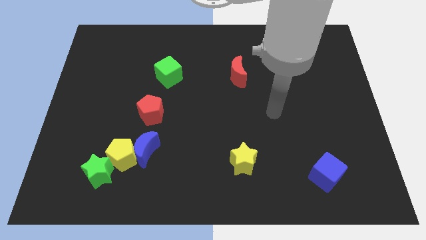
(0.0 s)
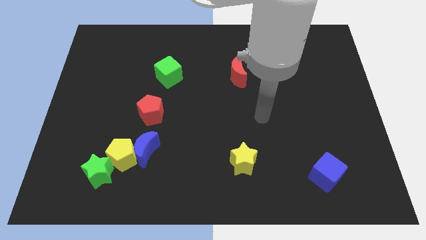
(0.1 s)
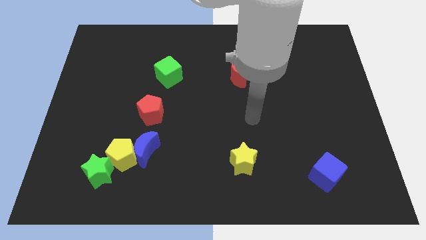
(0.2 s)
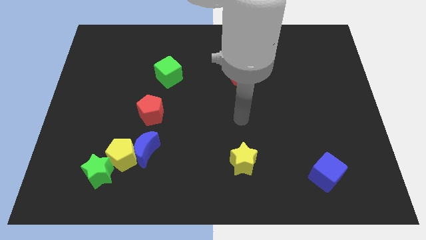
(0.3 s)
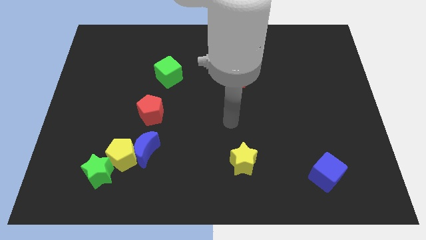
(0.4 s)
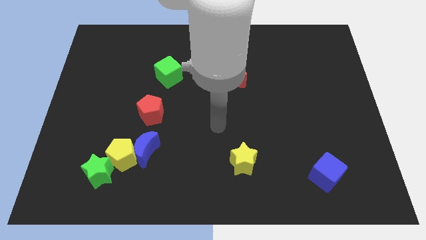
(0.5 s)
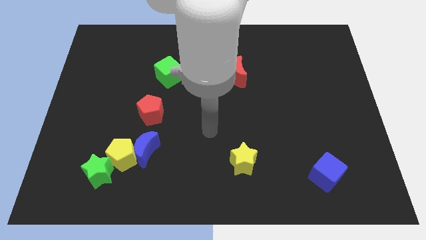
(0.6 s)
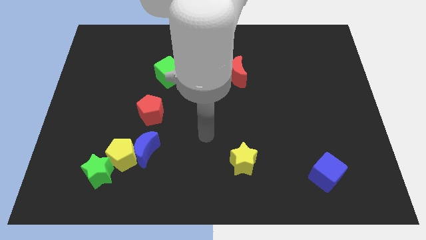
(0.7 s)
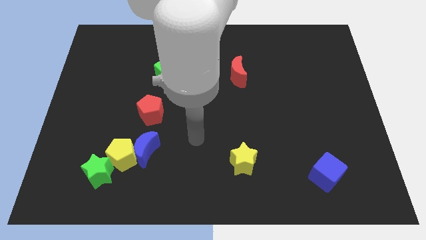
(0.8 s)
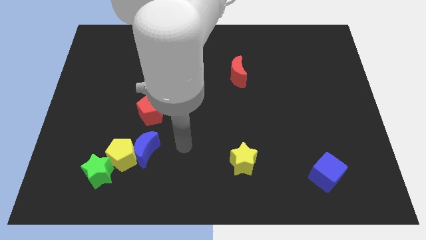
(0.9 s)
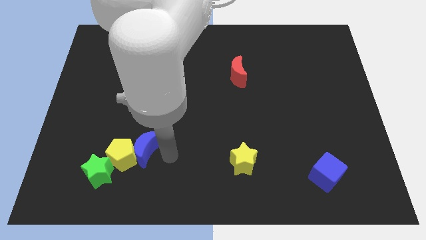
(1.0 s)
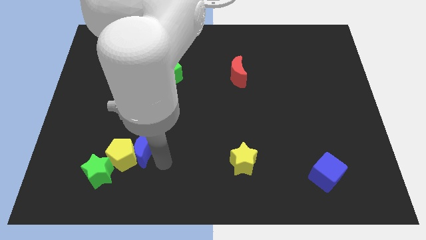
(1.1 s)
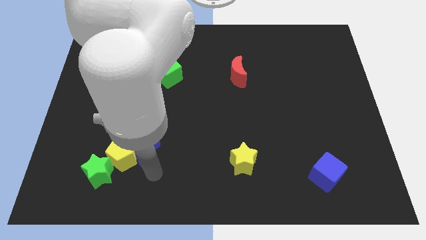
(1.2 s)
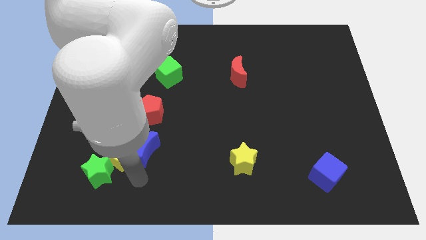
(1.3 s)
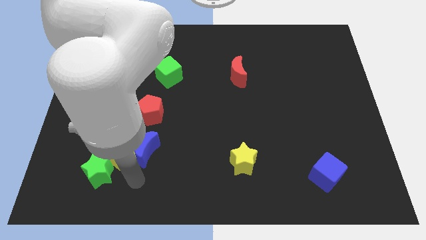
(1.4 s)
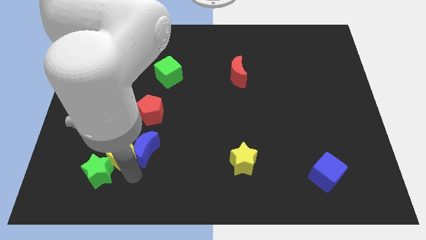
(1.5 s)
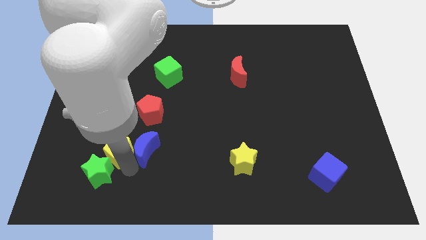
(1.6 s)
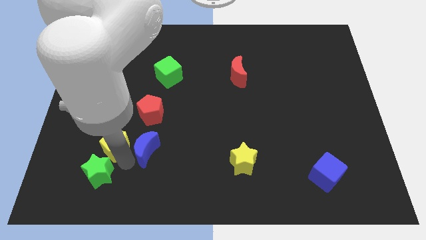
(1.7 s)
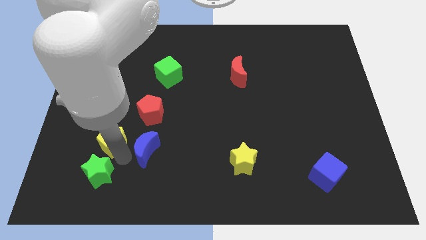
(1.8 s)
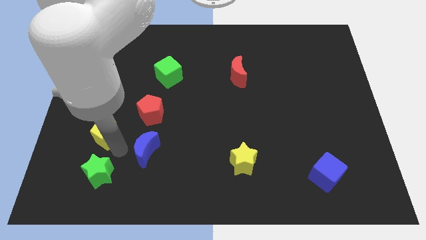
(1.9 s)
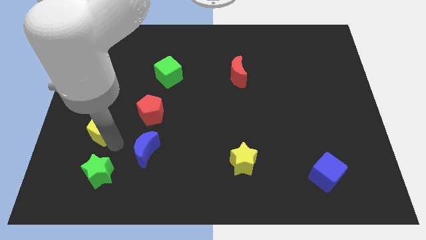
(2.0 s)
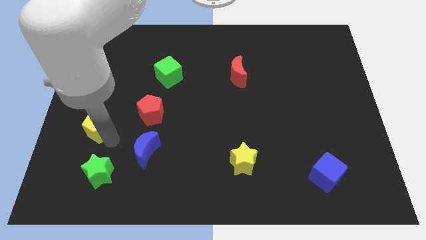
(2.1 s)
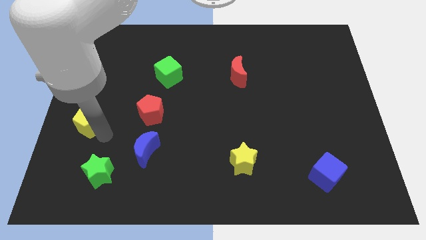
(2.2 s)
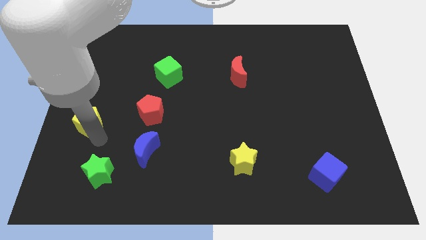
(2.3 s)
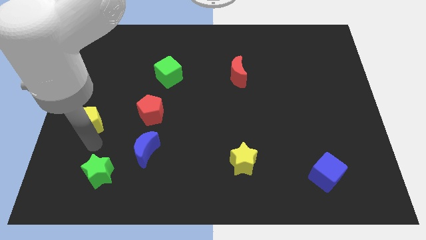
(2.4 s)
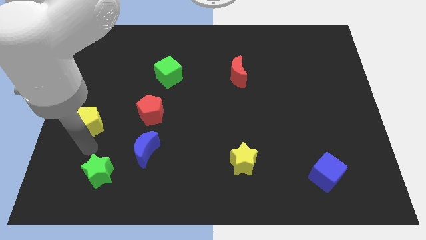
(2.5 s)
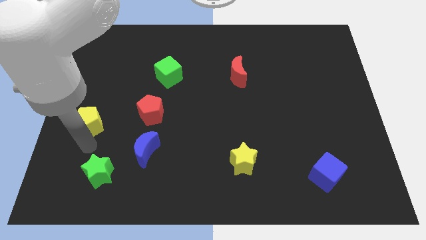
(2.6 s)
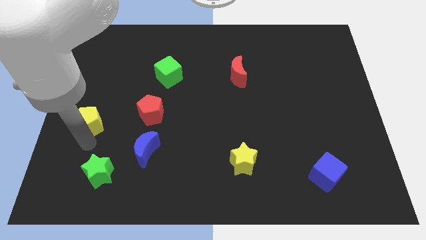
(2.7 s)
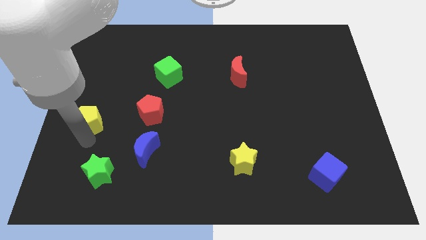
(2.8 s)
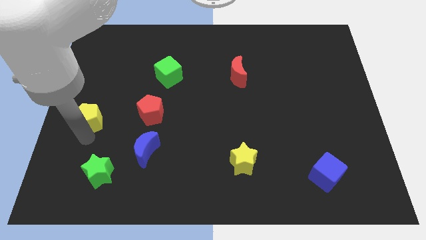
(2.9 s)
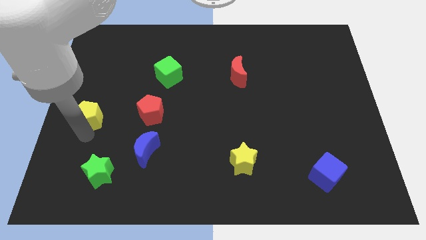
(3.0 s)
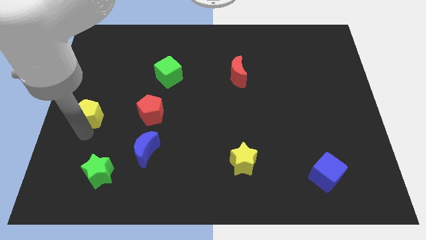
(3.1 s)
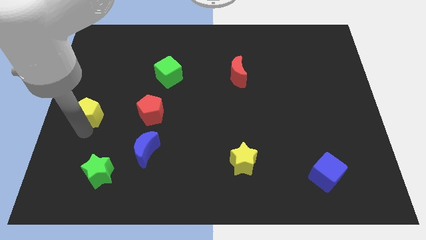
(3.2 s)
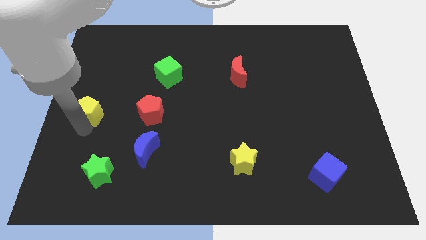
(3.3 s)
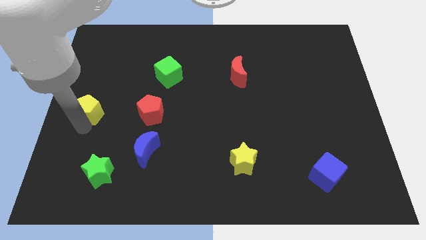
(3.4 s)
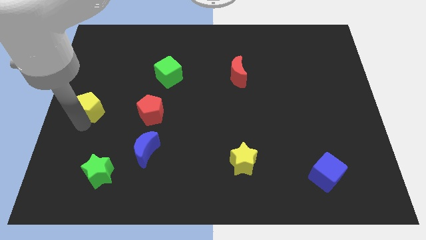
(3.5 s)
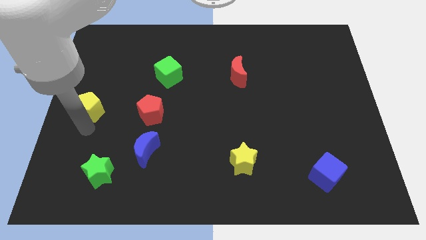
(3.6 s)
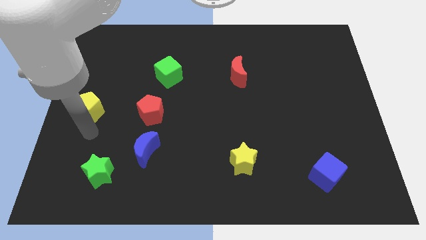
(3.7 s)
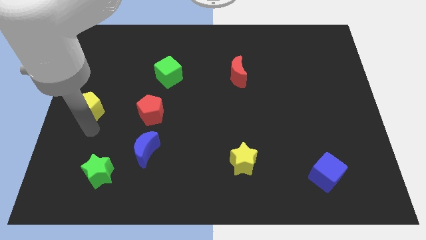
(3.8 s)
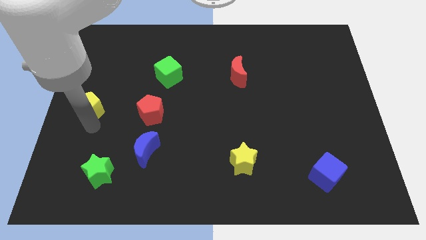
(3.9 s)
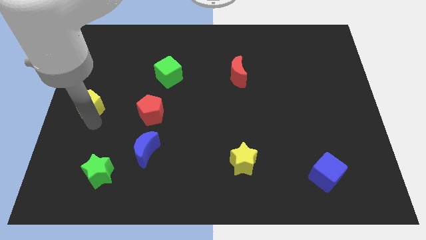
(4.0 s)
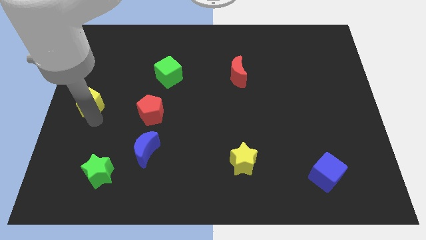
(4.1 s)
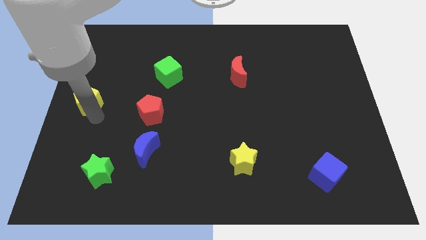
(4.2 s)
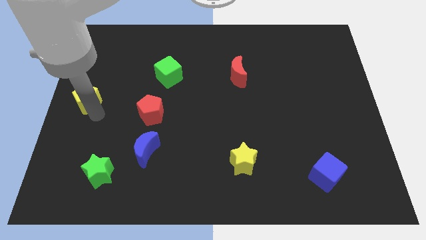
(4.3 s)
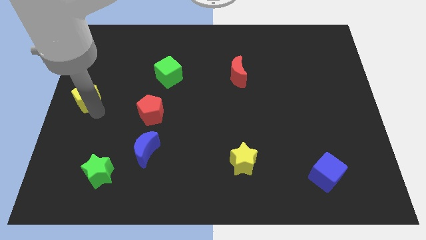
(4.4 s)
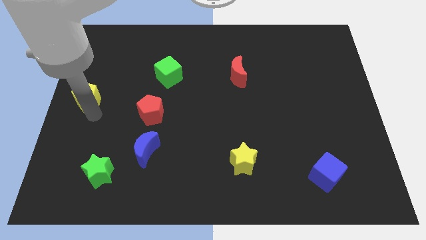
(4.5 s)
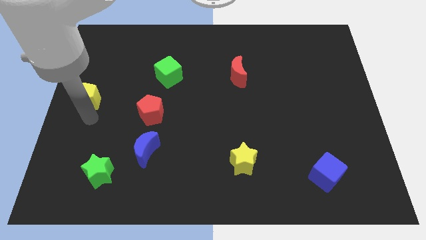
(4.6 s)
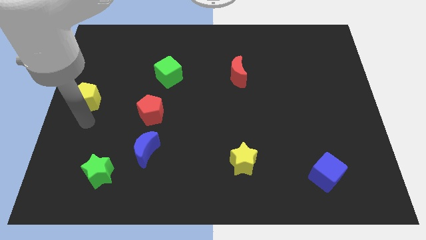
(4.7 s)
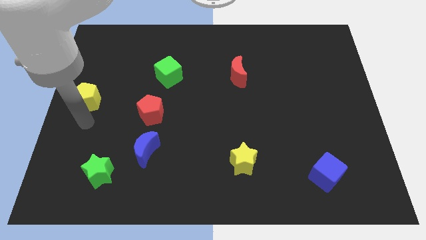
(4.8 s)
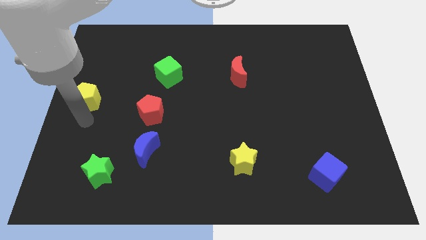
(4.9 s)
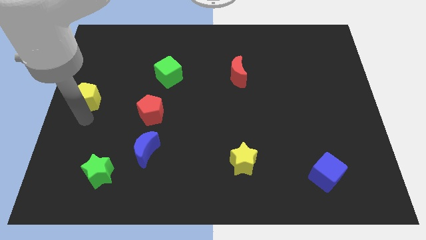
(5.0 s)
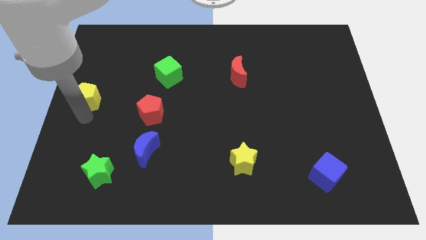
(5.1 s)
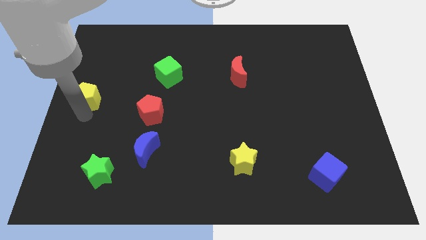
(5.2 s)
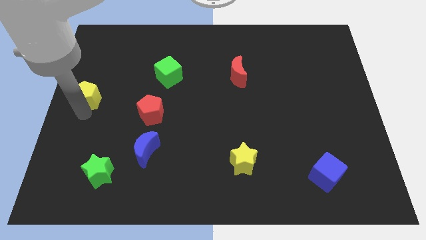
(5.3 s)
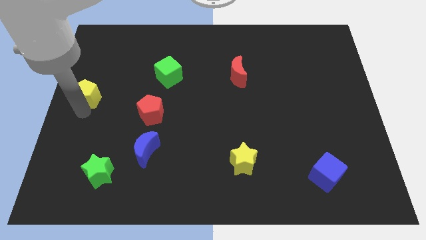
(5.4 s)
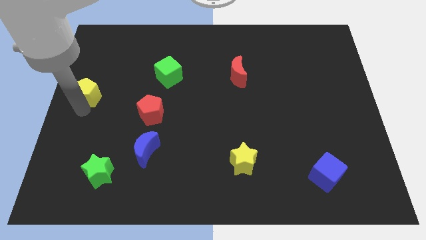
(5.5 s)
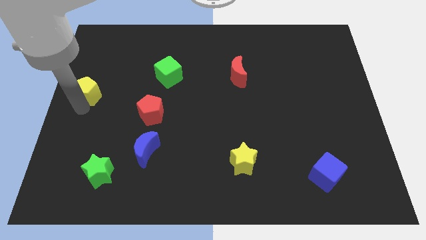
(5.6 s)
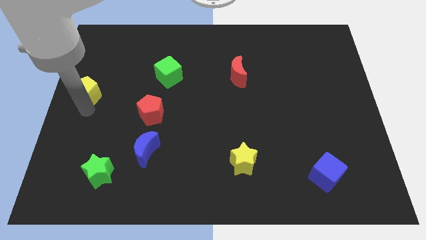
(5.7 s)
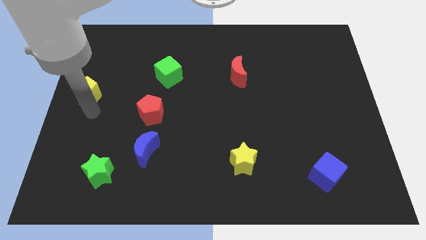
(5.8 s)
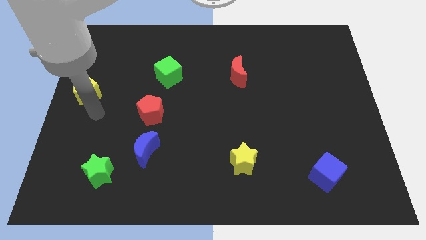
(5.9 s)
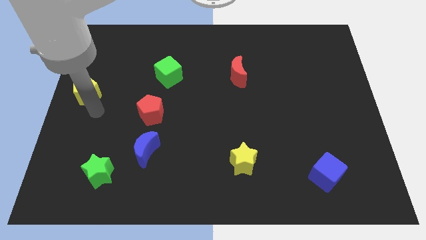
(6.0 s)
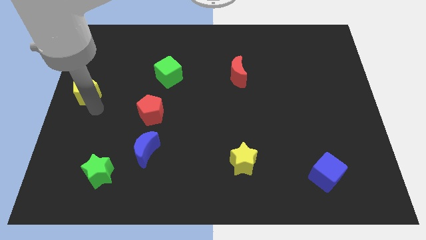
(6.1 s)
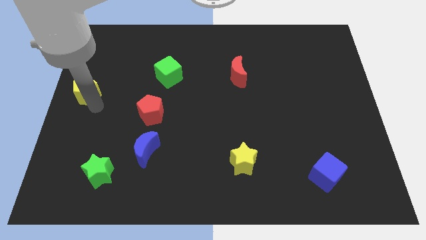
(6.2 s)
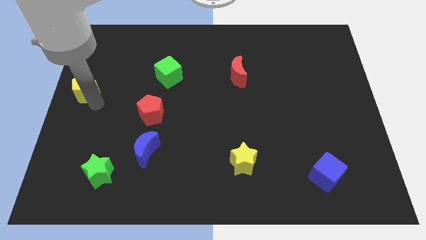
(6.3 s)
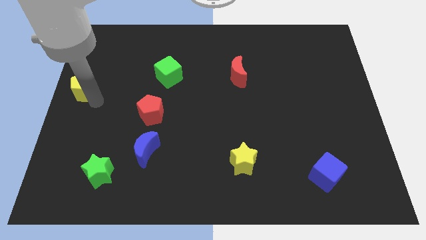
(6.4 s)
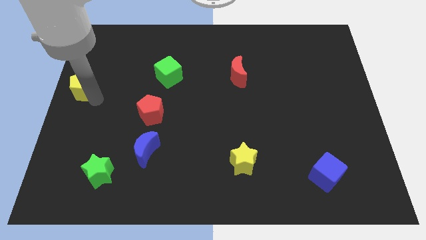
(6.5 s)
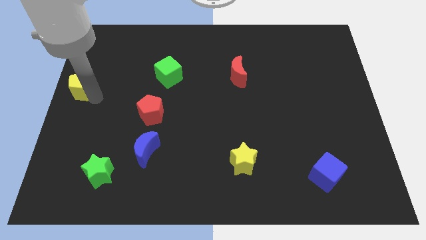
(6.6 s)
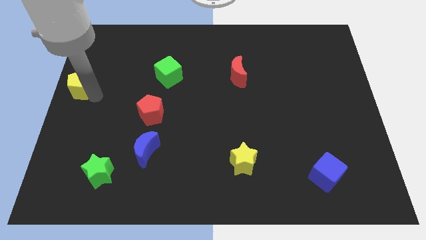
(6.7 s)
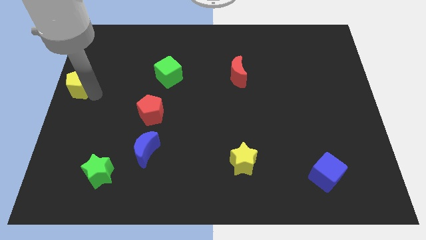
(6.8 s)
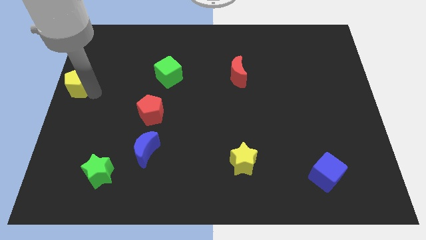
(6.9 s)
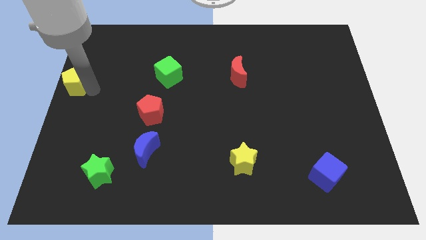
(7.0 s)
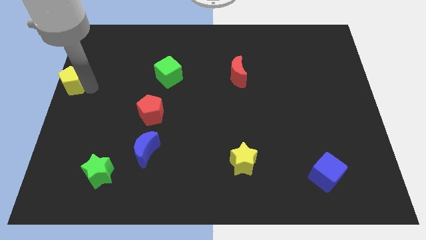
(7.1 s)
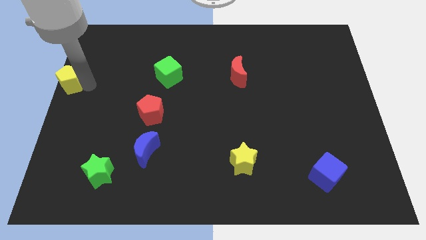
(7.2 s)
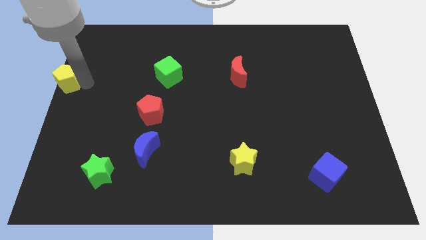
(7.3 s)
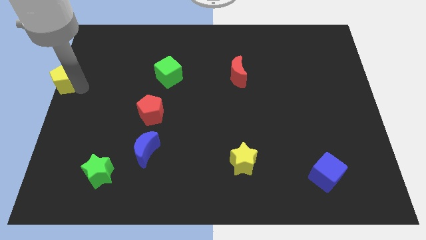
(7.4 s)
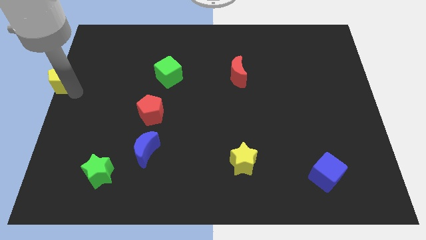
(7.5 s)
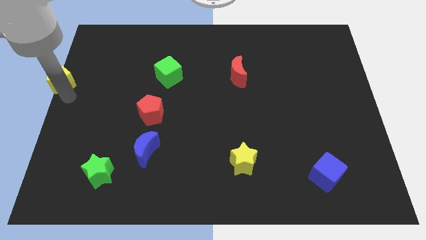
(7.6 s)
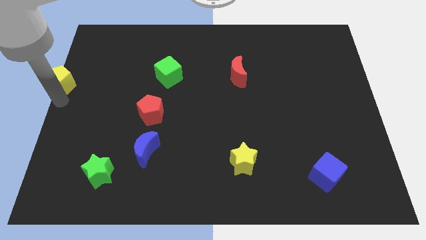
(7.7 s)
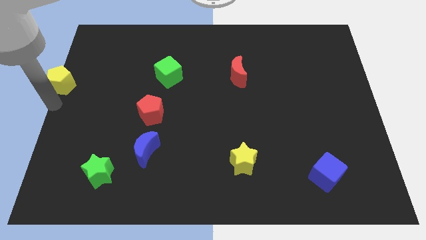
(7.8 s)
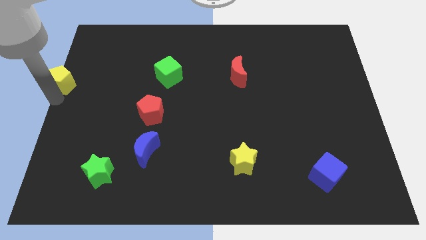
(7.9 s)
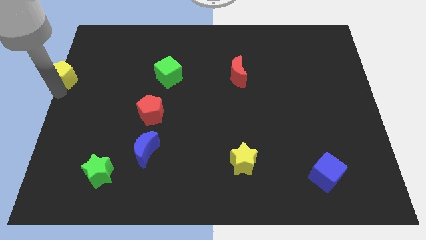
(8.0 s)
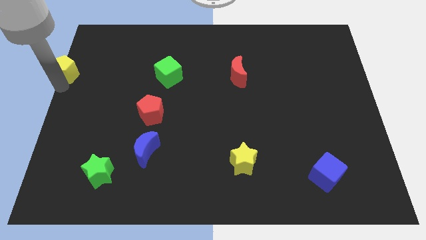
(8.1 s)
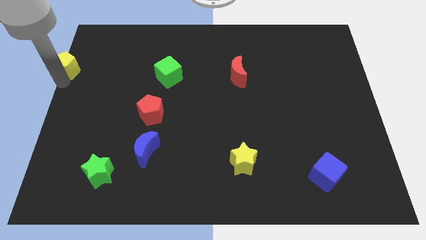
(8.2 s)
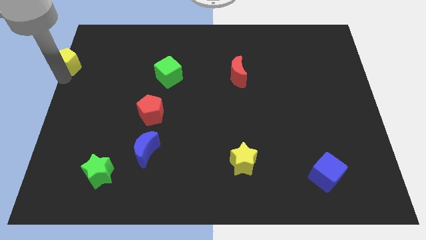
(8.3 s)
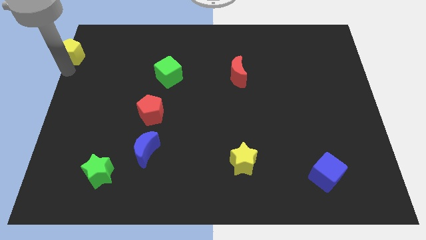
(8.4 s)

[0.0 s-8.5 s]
push the yellow pentagon to the upper left corner
